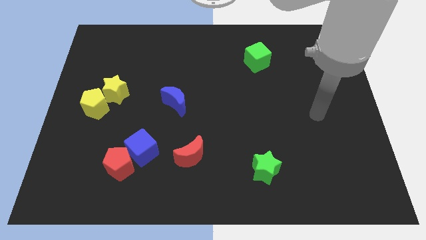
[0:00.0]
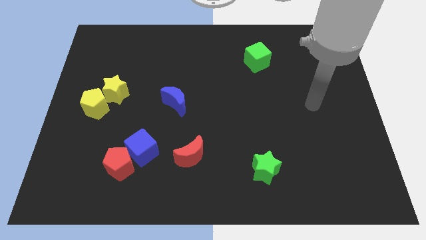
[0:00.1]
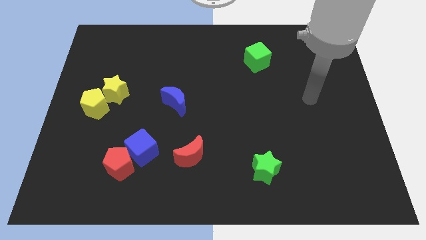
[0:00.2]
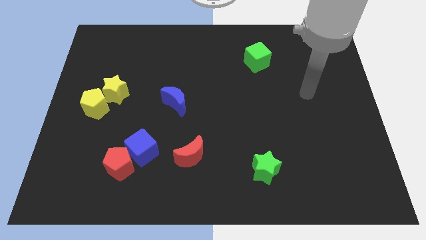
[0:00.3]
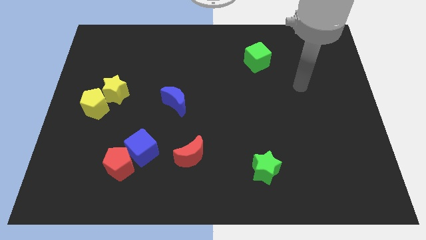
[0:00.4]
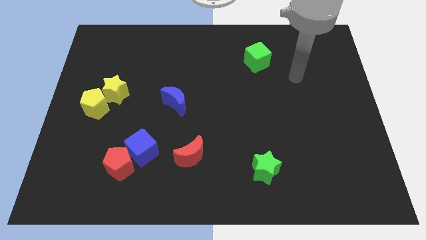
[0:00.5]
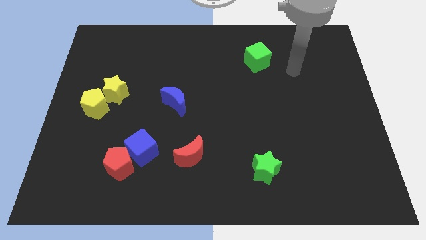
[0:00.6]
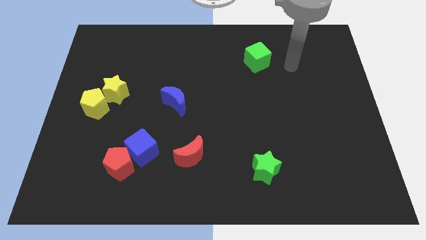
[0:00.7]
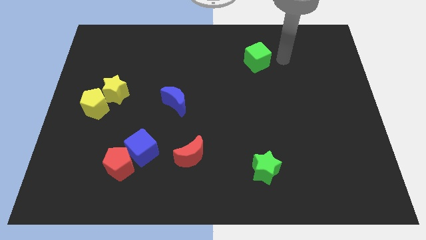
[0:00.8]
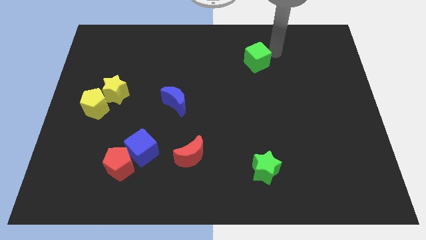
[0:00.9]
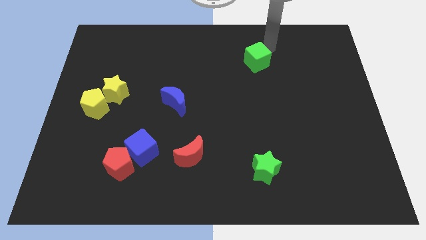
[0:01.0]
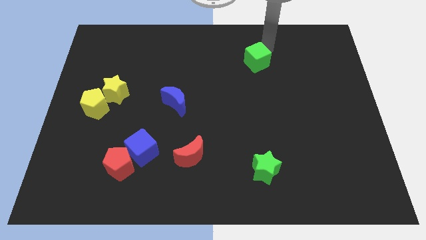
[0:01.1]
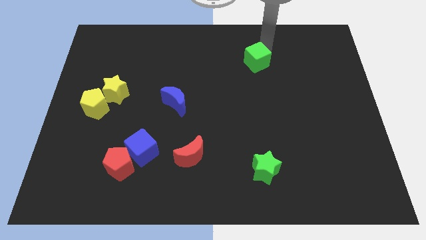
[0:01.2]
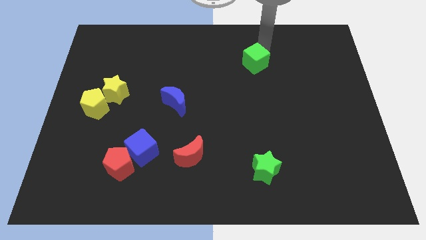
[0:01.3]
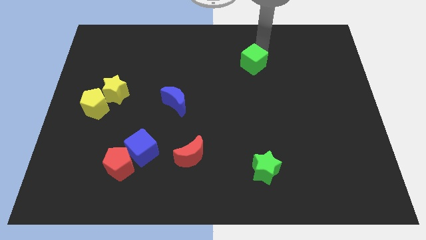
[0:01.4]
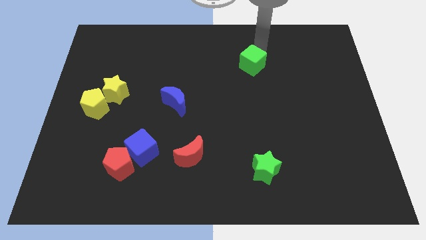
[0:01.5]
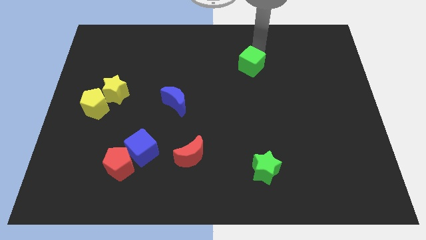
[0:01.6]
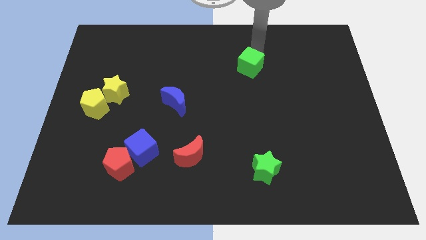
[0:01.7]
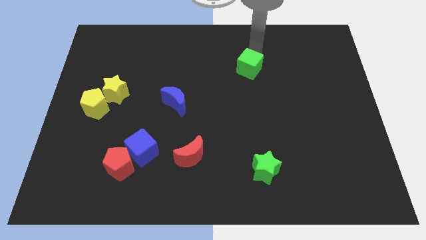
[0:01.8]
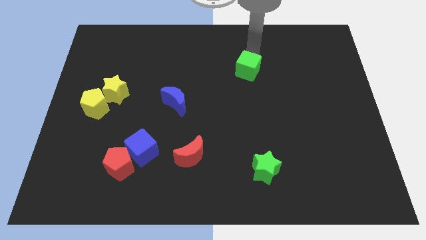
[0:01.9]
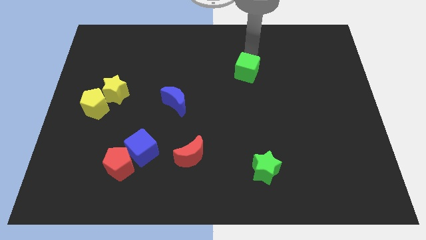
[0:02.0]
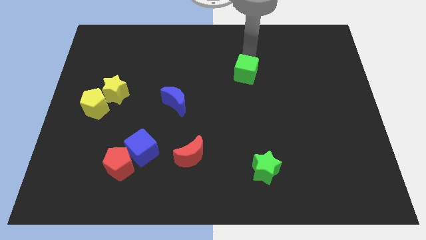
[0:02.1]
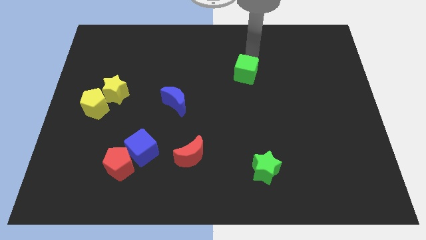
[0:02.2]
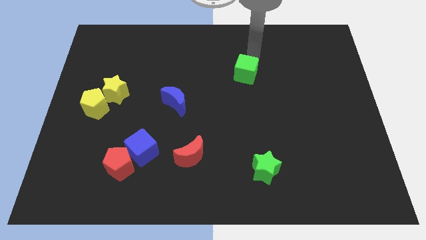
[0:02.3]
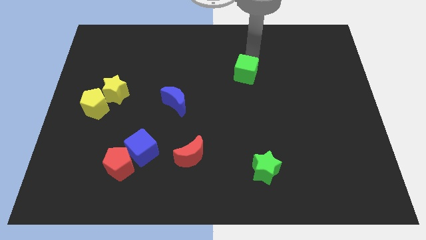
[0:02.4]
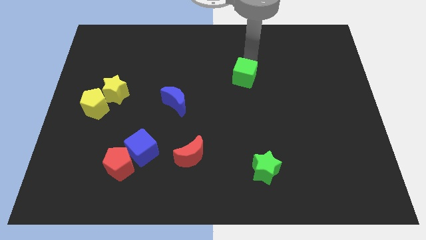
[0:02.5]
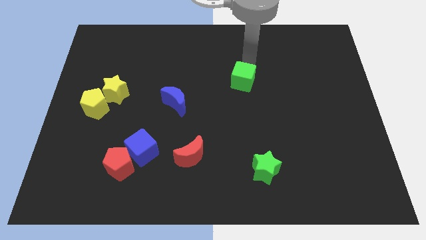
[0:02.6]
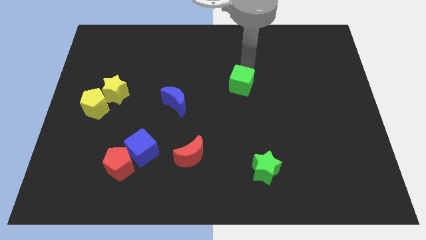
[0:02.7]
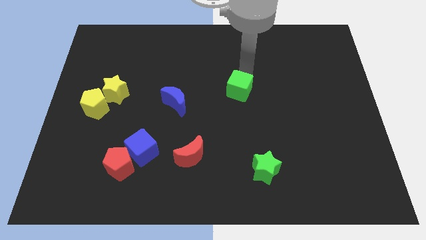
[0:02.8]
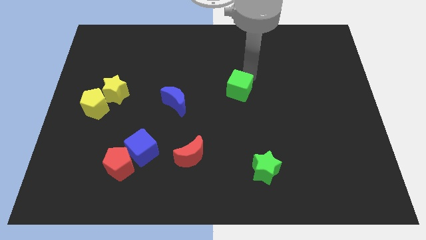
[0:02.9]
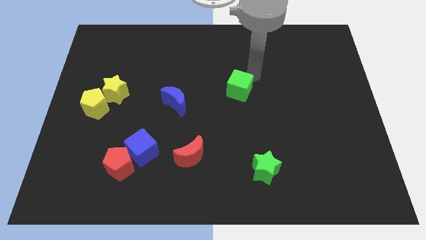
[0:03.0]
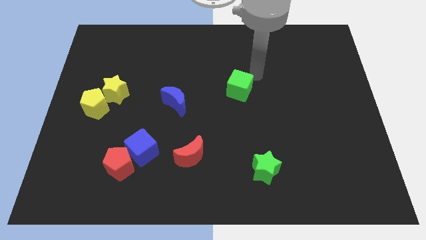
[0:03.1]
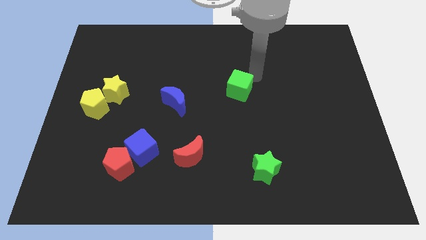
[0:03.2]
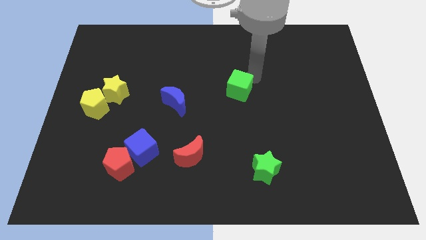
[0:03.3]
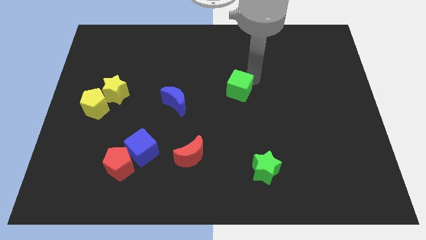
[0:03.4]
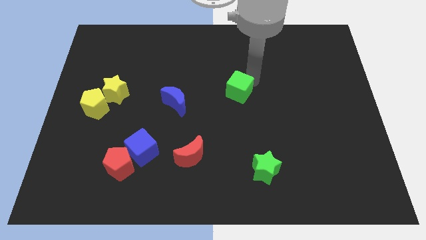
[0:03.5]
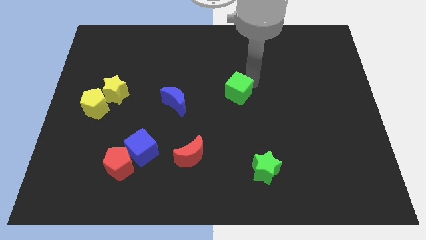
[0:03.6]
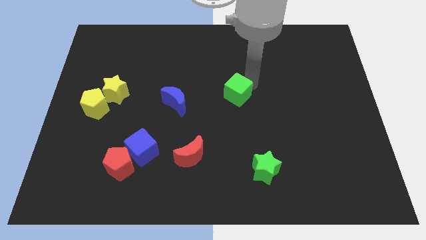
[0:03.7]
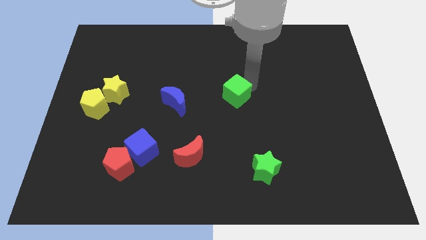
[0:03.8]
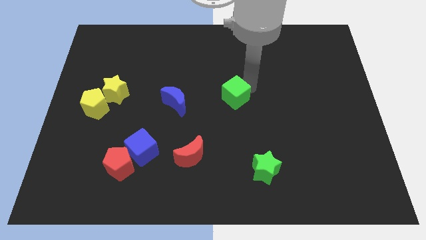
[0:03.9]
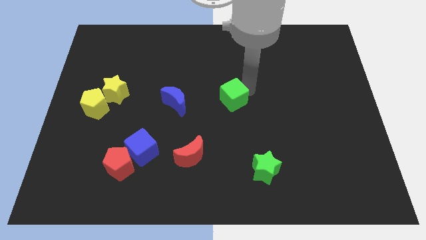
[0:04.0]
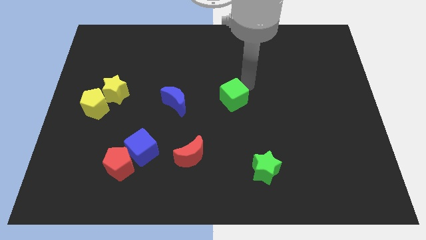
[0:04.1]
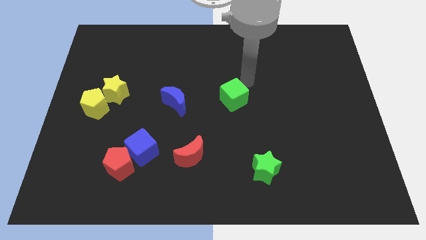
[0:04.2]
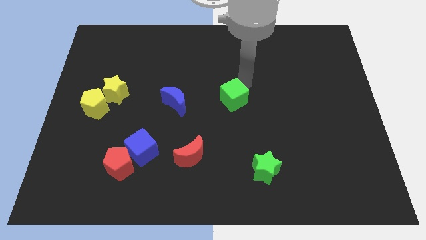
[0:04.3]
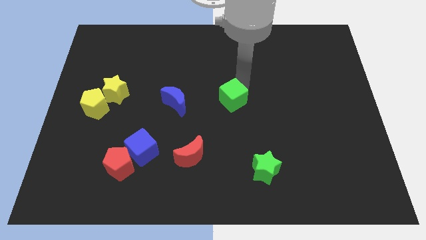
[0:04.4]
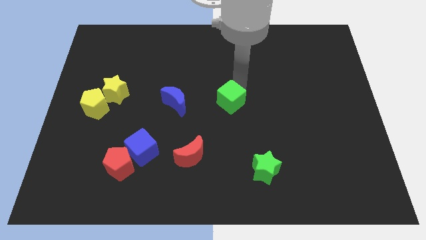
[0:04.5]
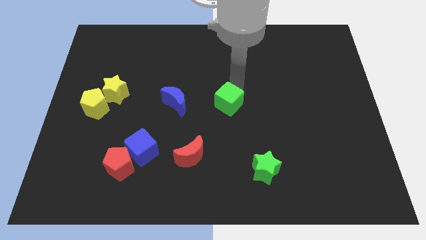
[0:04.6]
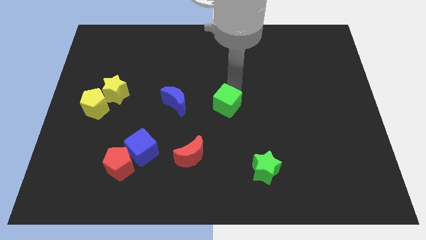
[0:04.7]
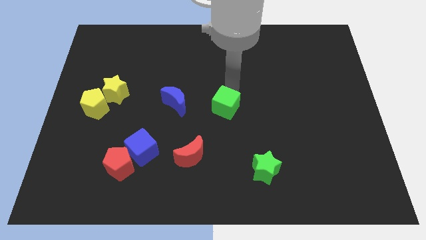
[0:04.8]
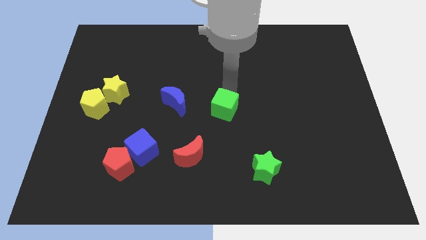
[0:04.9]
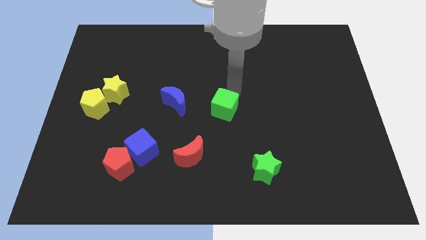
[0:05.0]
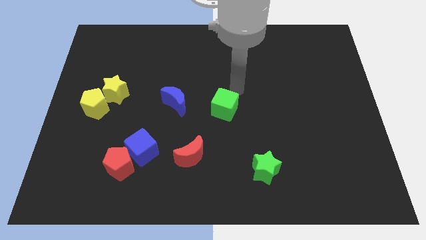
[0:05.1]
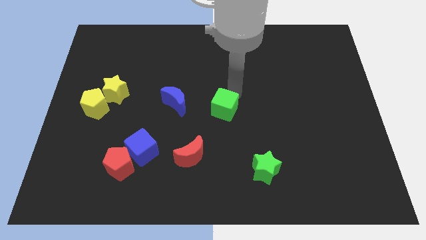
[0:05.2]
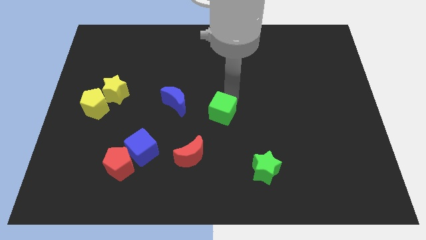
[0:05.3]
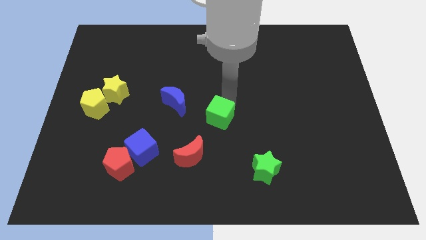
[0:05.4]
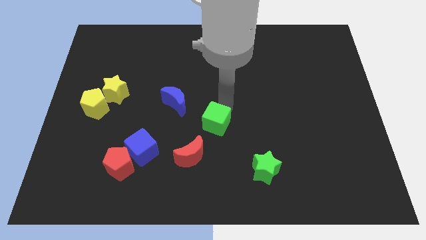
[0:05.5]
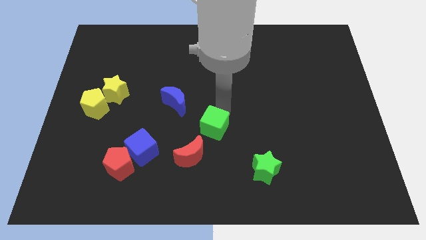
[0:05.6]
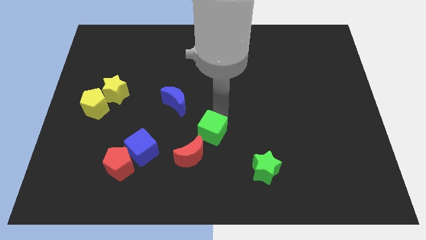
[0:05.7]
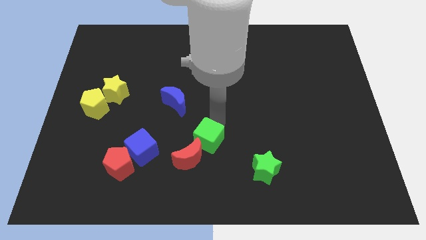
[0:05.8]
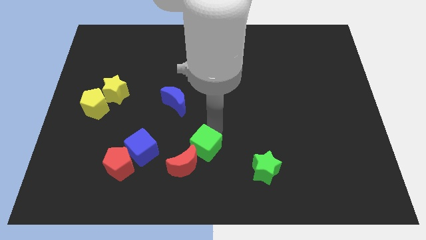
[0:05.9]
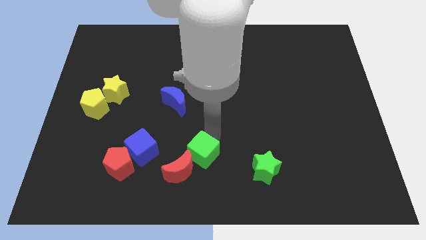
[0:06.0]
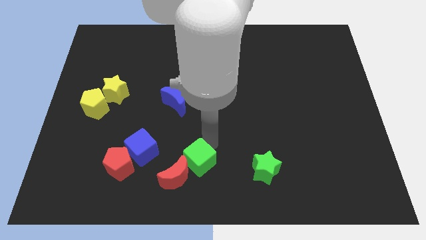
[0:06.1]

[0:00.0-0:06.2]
push the green cube close to the red moon

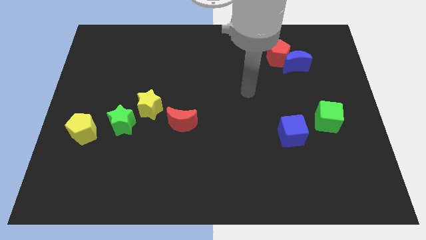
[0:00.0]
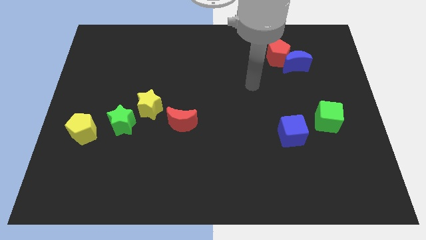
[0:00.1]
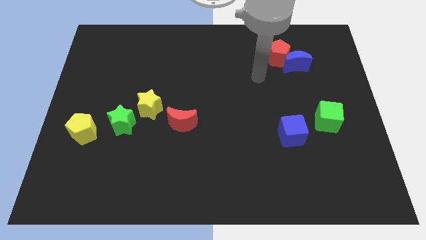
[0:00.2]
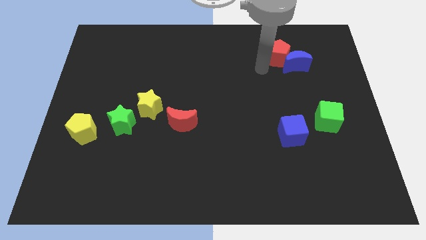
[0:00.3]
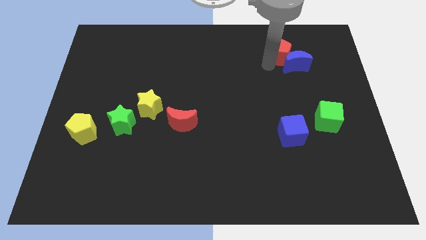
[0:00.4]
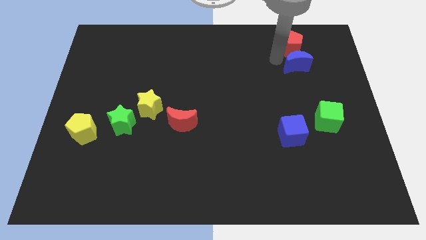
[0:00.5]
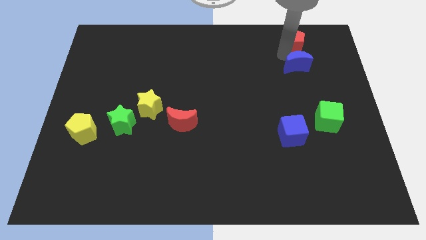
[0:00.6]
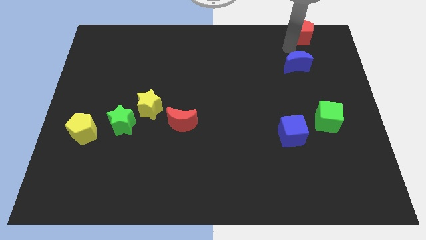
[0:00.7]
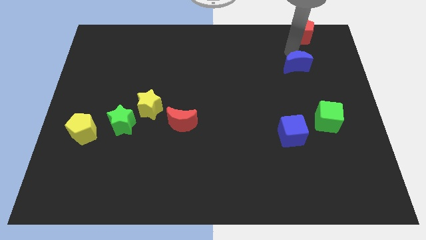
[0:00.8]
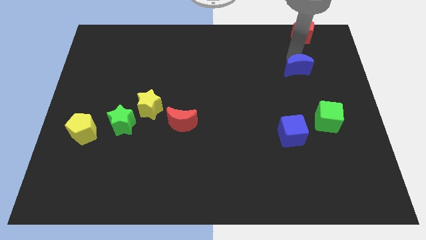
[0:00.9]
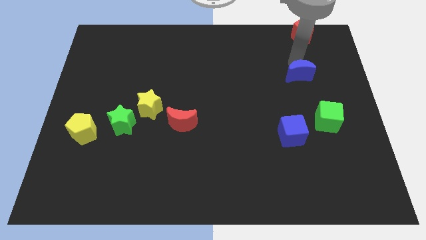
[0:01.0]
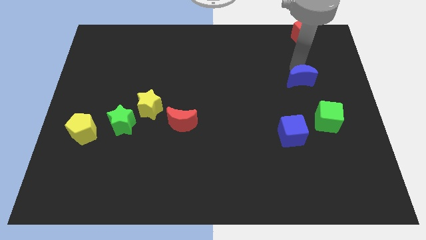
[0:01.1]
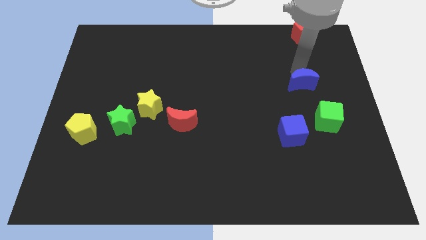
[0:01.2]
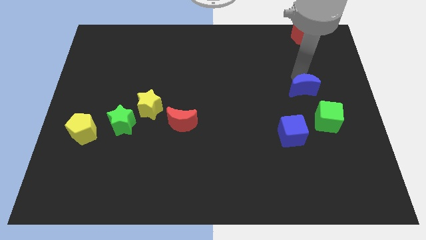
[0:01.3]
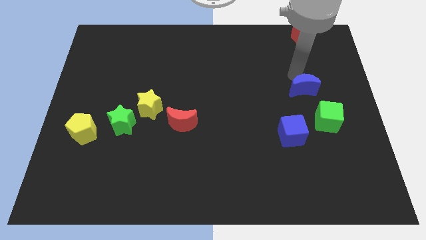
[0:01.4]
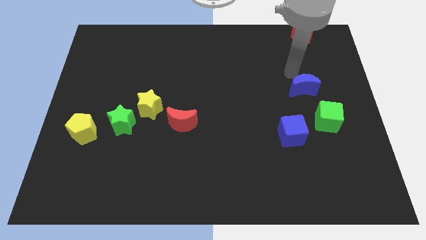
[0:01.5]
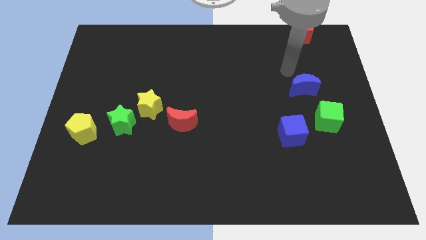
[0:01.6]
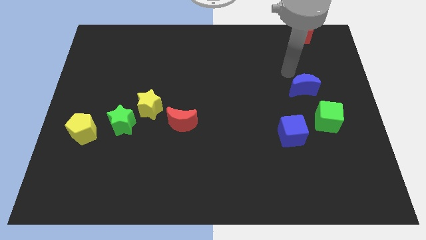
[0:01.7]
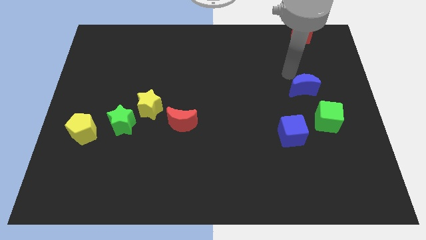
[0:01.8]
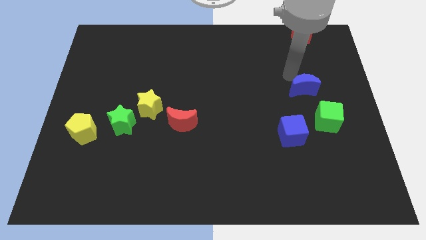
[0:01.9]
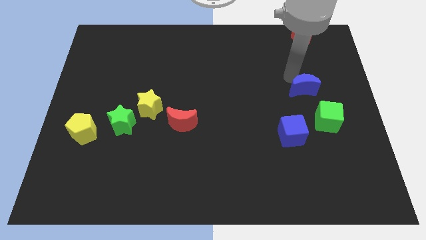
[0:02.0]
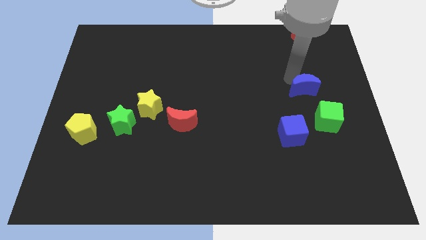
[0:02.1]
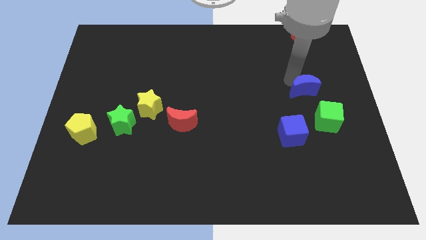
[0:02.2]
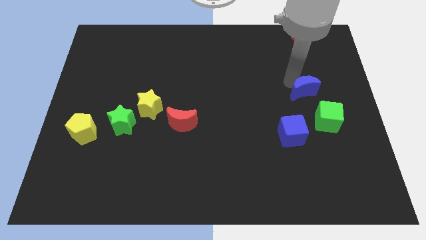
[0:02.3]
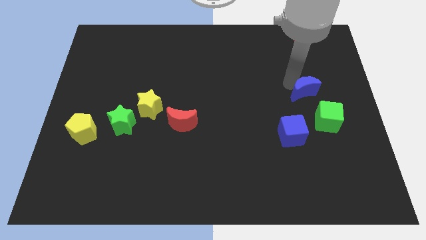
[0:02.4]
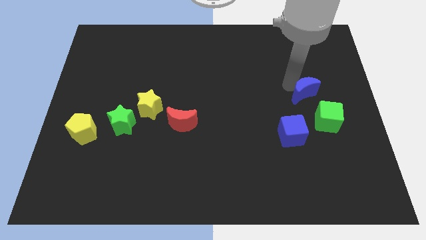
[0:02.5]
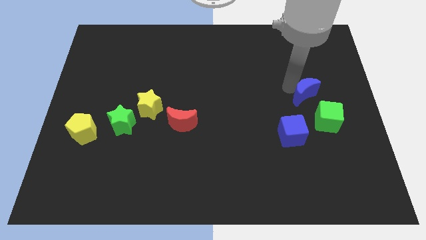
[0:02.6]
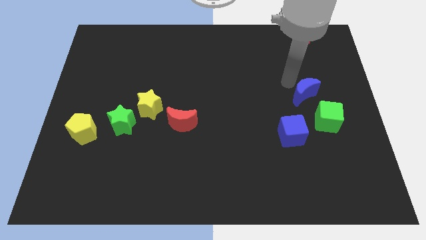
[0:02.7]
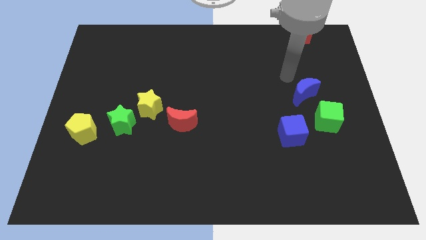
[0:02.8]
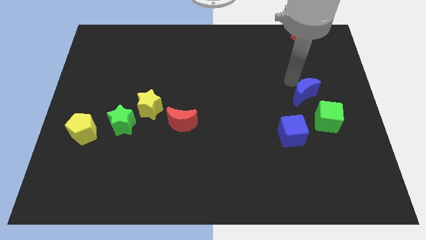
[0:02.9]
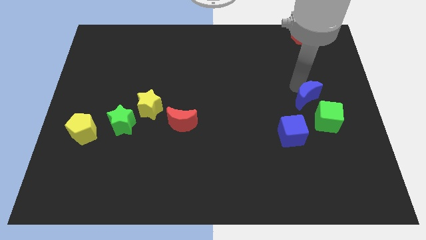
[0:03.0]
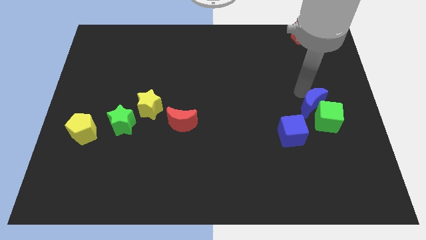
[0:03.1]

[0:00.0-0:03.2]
slide the blue moon to the green cube
